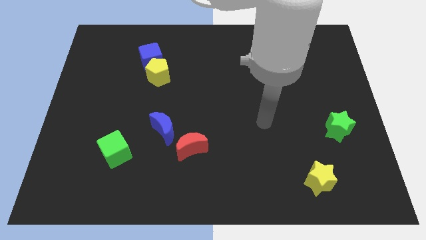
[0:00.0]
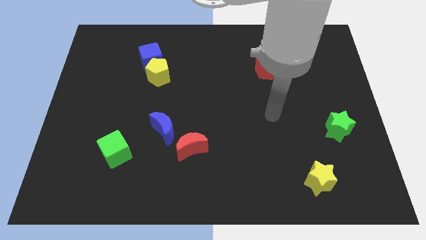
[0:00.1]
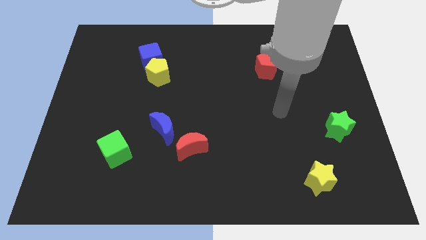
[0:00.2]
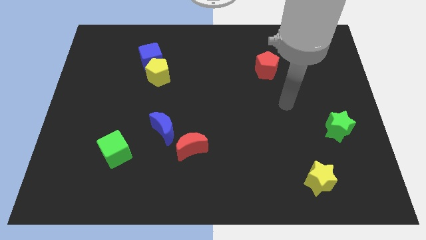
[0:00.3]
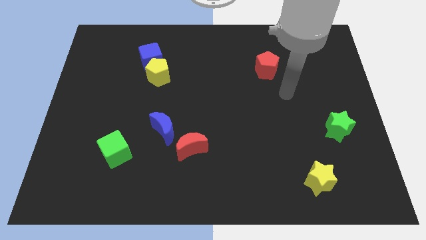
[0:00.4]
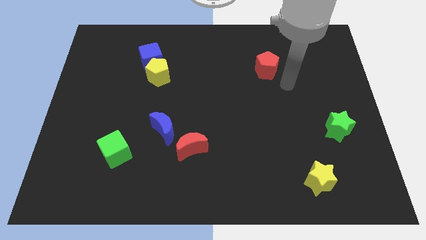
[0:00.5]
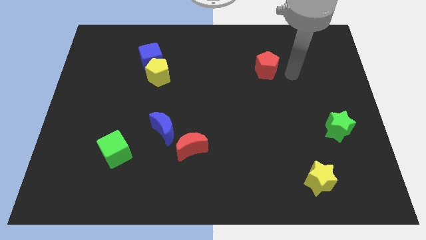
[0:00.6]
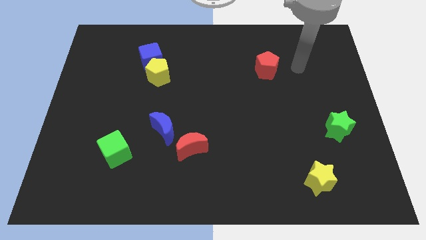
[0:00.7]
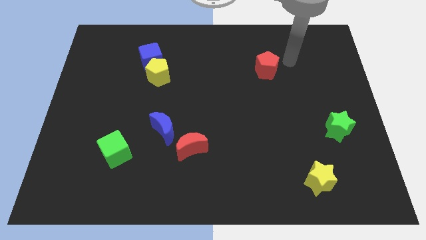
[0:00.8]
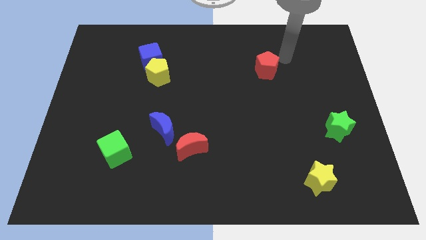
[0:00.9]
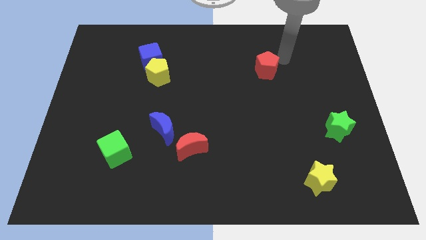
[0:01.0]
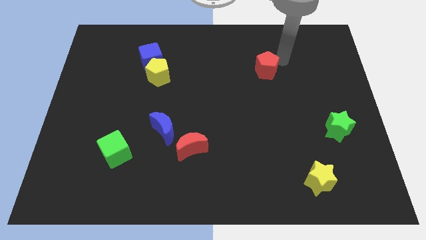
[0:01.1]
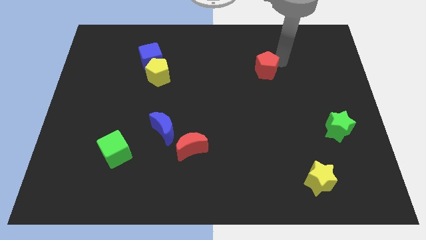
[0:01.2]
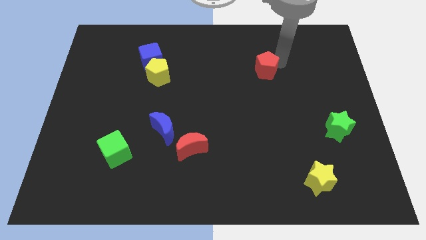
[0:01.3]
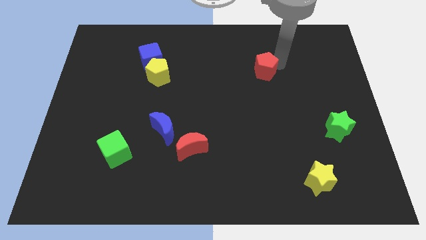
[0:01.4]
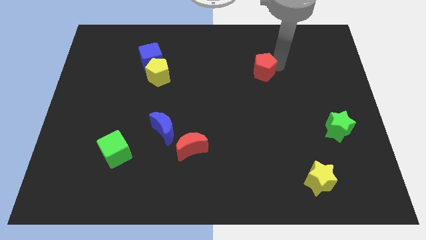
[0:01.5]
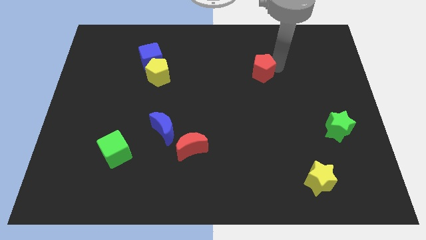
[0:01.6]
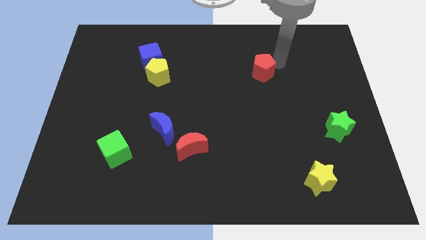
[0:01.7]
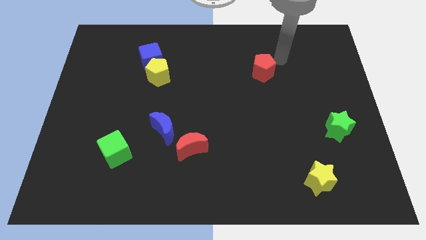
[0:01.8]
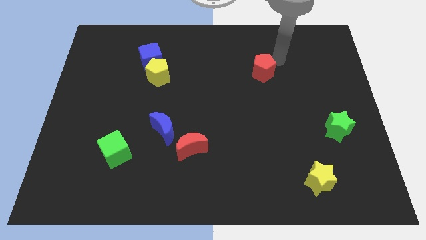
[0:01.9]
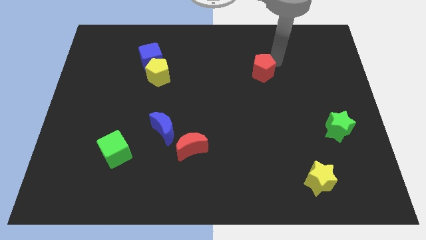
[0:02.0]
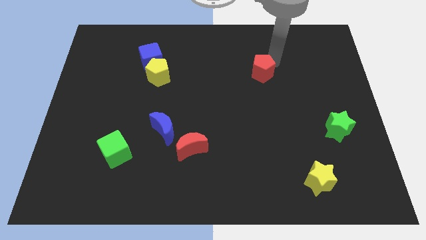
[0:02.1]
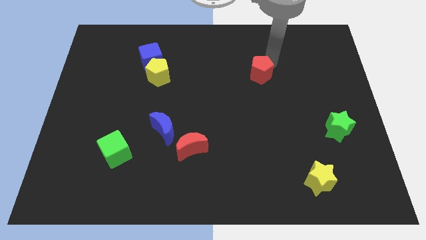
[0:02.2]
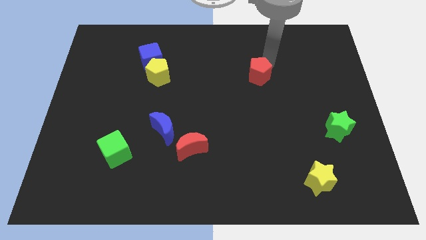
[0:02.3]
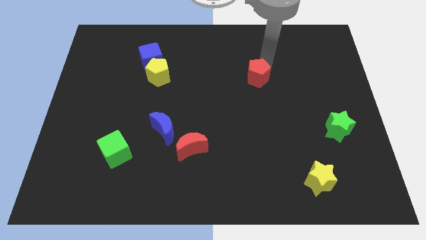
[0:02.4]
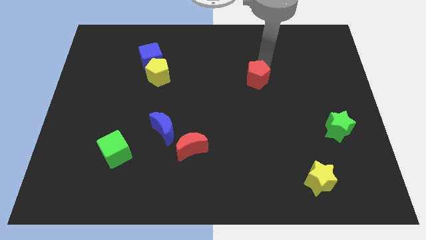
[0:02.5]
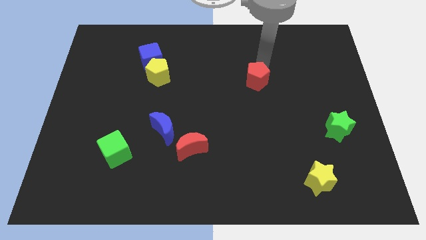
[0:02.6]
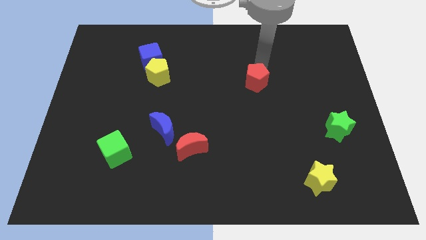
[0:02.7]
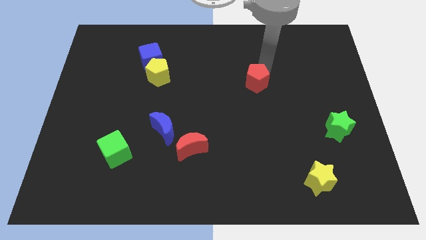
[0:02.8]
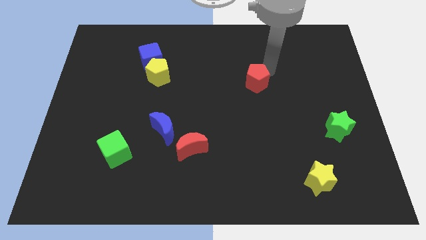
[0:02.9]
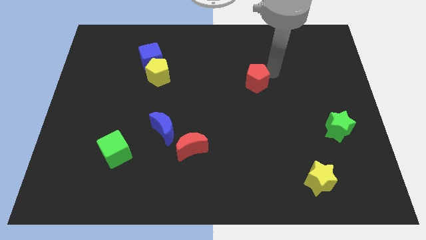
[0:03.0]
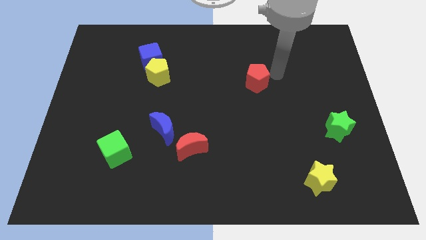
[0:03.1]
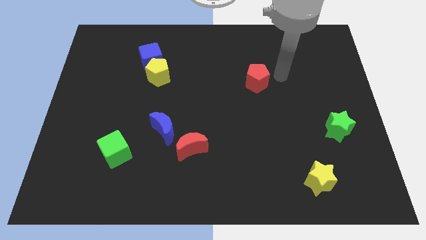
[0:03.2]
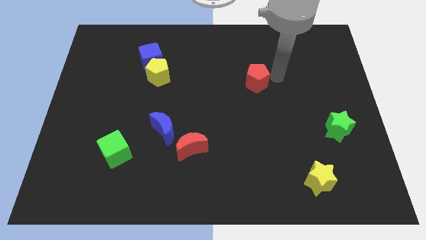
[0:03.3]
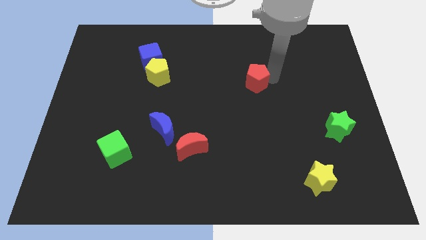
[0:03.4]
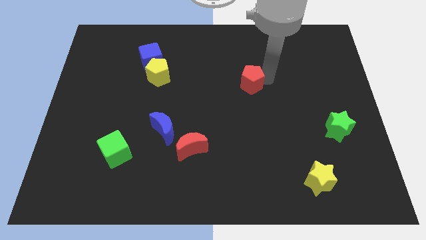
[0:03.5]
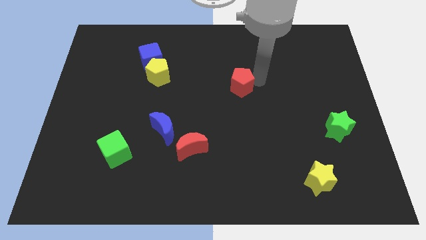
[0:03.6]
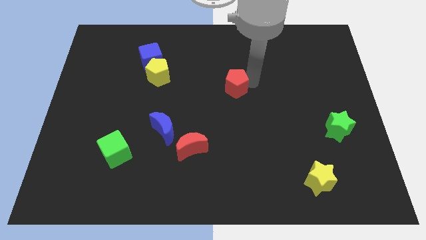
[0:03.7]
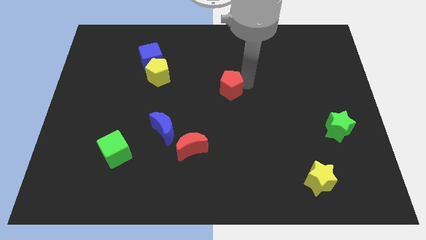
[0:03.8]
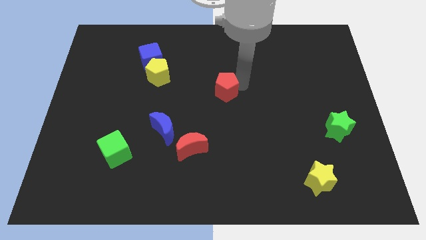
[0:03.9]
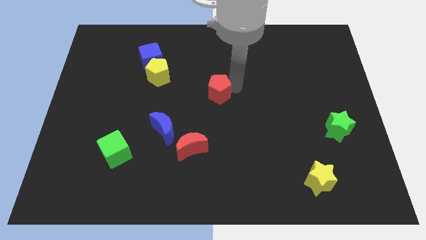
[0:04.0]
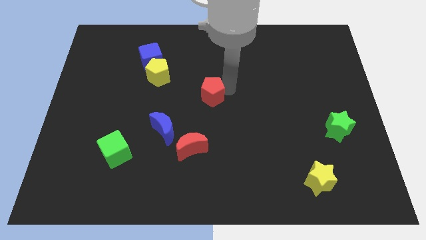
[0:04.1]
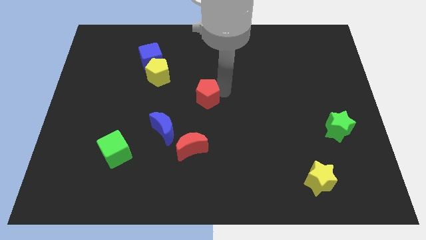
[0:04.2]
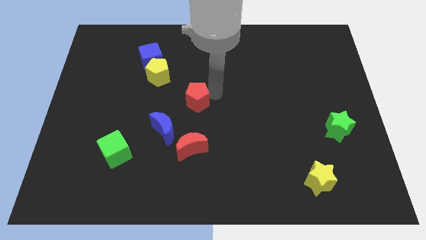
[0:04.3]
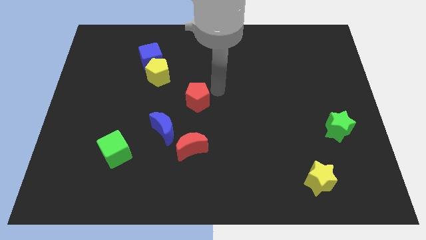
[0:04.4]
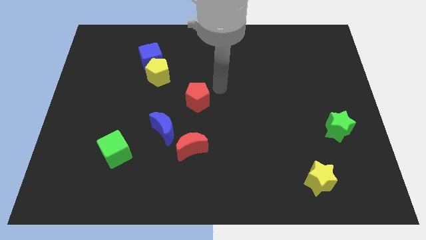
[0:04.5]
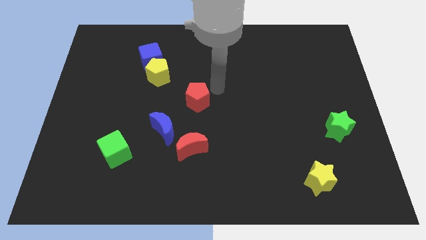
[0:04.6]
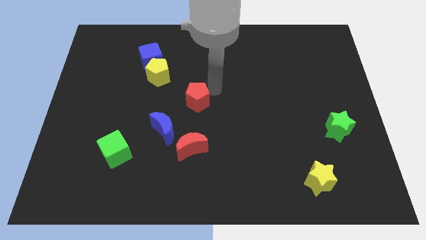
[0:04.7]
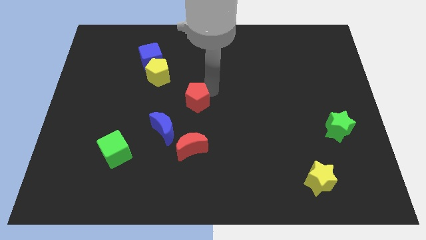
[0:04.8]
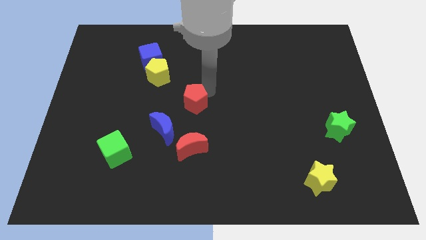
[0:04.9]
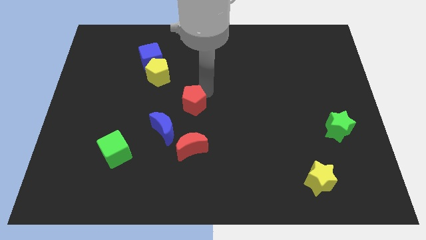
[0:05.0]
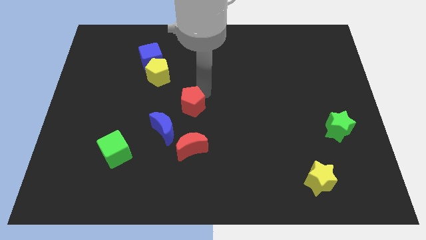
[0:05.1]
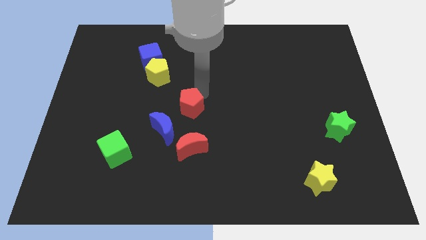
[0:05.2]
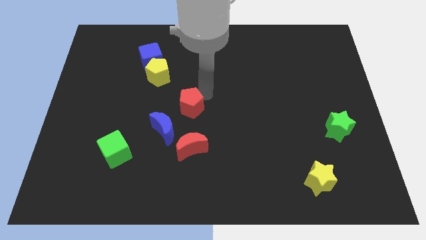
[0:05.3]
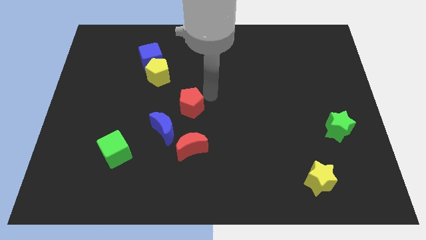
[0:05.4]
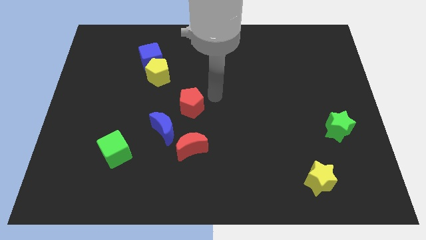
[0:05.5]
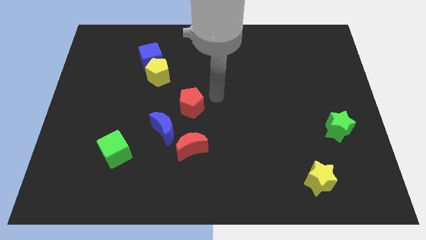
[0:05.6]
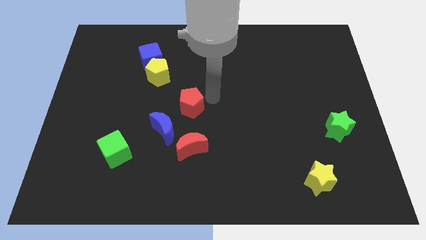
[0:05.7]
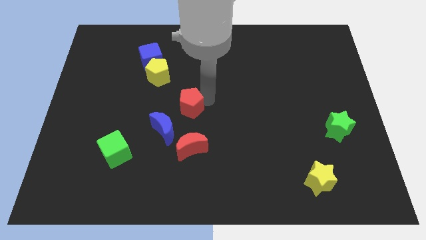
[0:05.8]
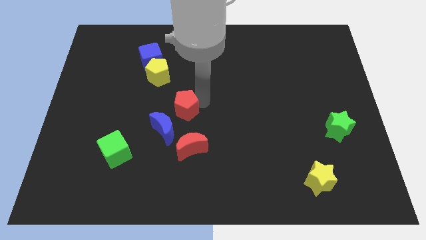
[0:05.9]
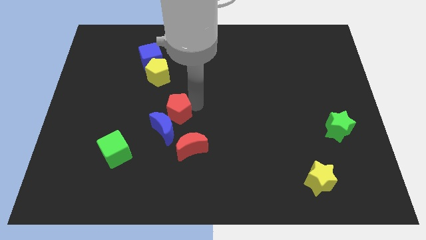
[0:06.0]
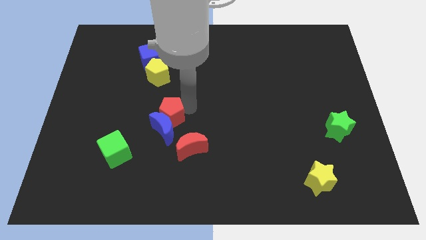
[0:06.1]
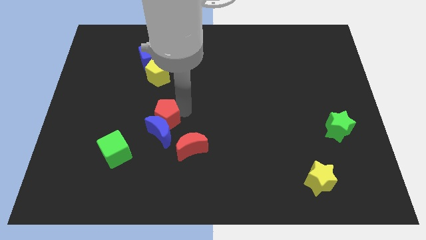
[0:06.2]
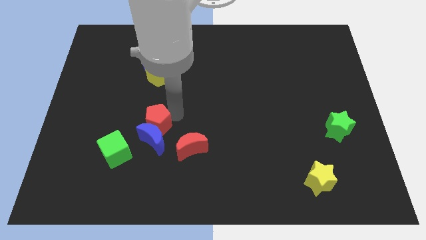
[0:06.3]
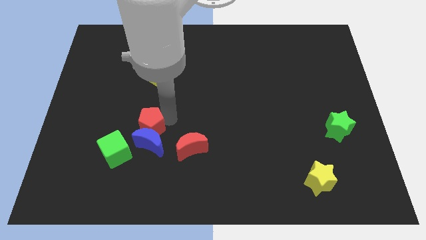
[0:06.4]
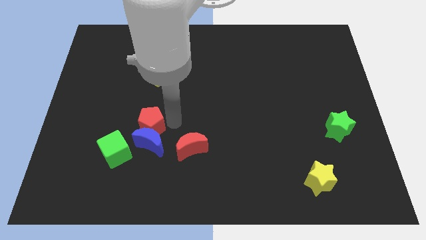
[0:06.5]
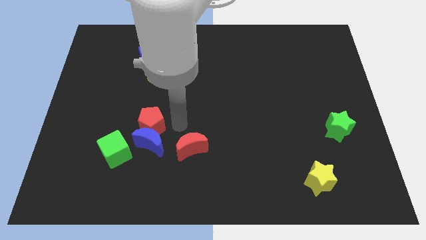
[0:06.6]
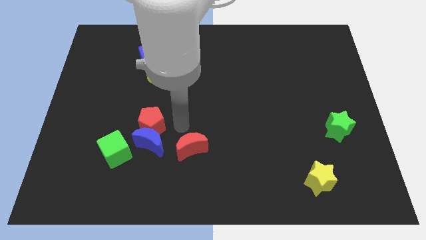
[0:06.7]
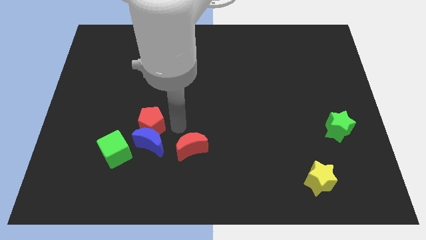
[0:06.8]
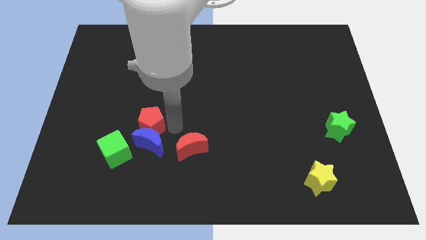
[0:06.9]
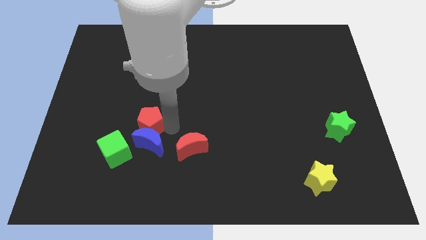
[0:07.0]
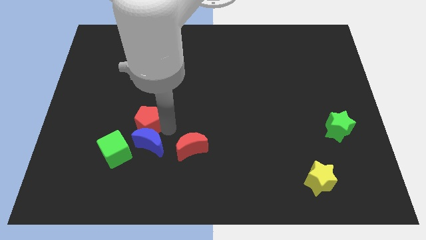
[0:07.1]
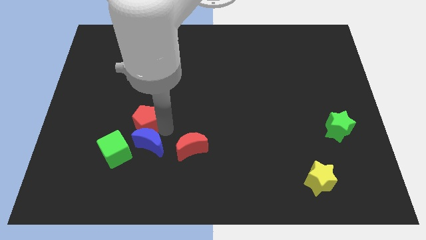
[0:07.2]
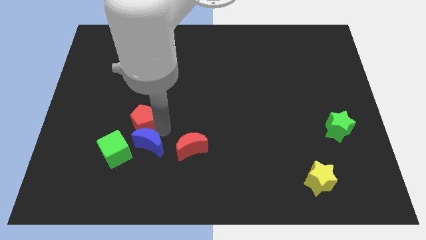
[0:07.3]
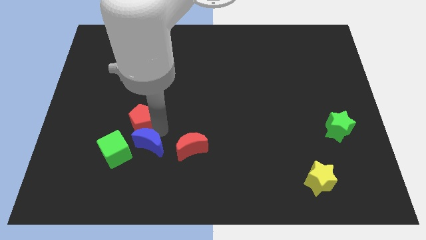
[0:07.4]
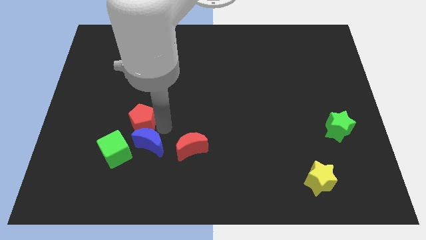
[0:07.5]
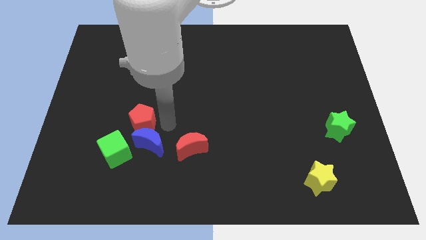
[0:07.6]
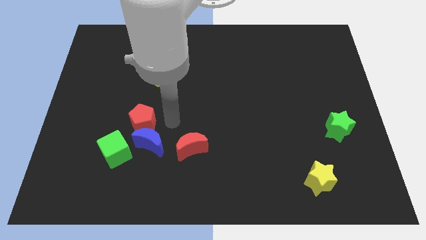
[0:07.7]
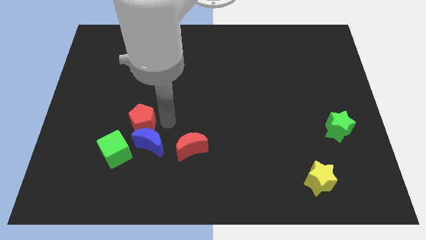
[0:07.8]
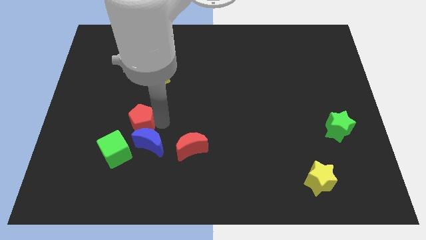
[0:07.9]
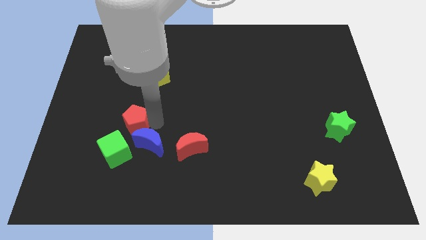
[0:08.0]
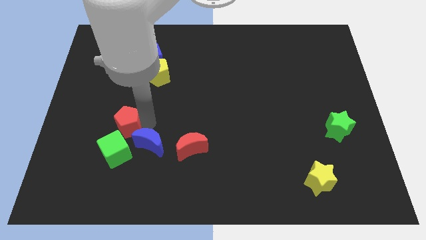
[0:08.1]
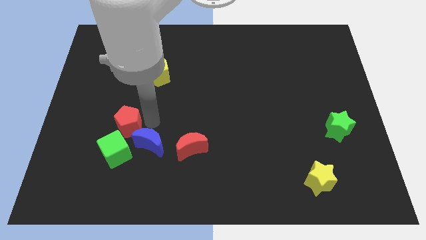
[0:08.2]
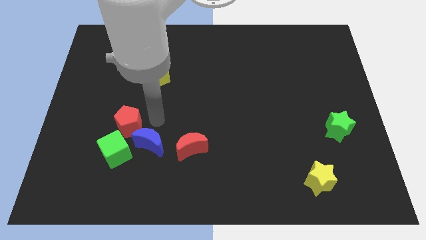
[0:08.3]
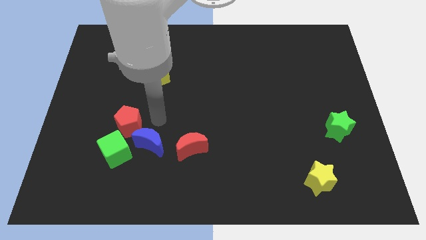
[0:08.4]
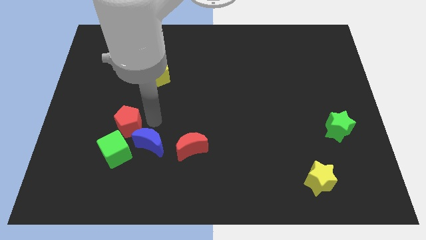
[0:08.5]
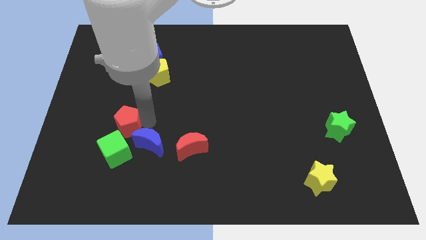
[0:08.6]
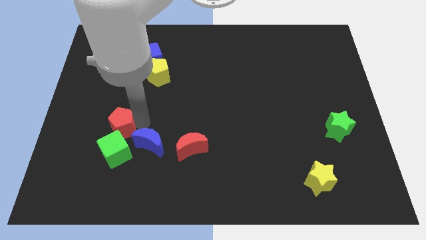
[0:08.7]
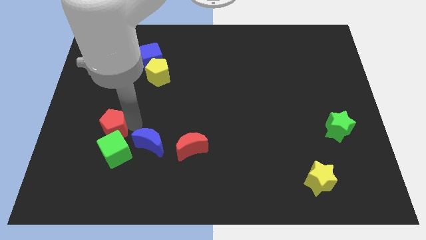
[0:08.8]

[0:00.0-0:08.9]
slide the red pentagon to the top left side of the green cube
